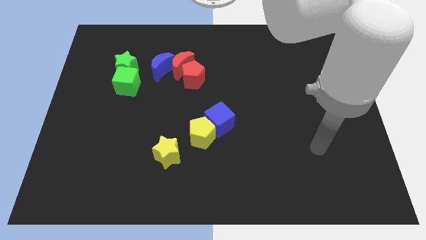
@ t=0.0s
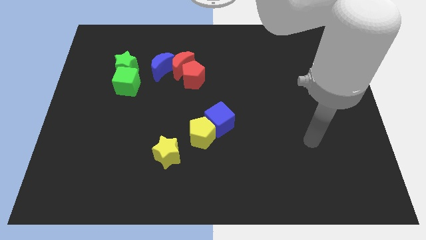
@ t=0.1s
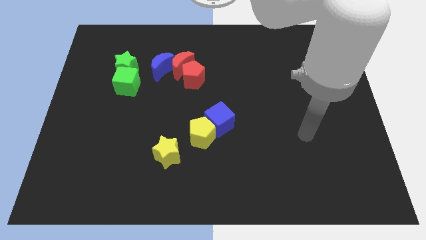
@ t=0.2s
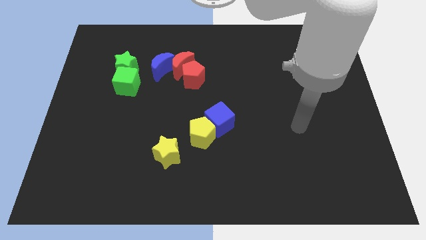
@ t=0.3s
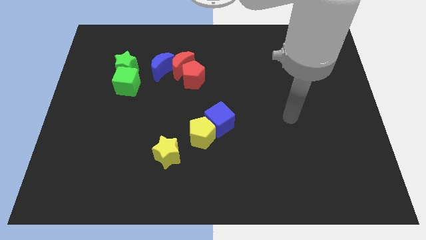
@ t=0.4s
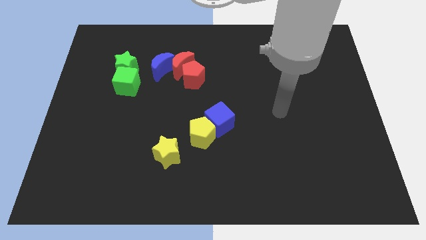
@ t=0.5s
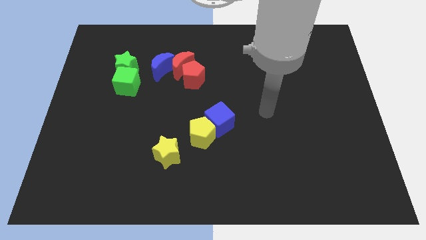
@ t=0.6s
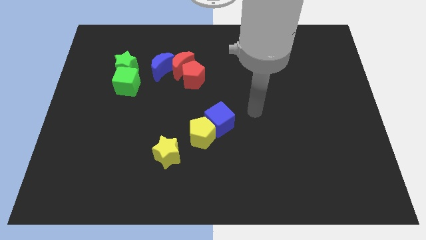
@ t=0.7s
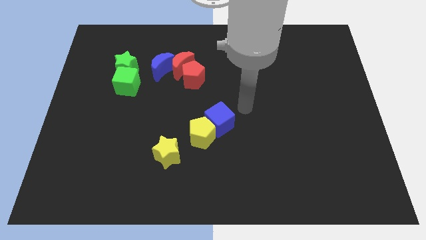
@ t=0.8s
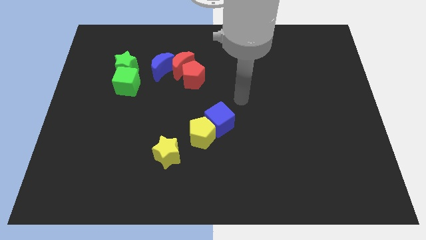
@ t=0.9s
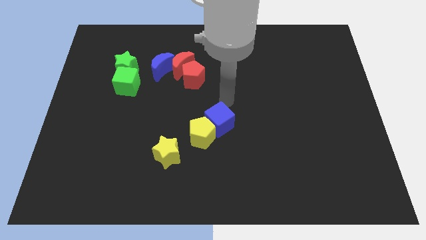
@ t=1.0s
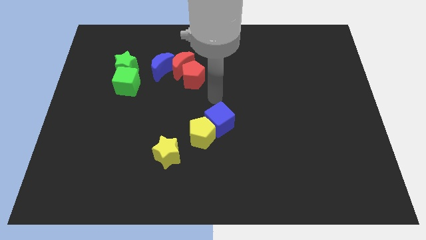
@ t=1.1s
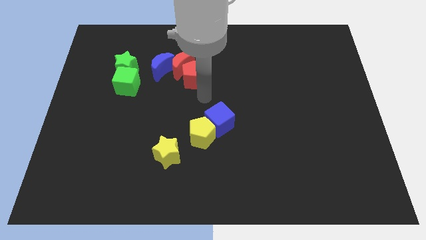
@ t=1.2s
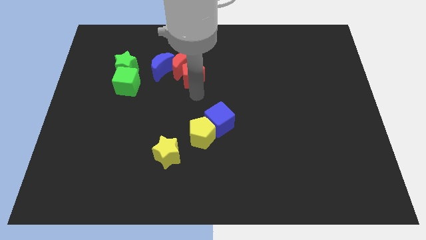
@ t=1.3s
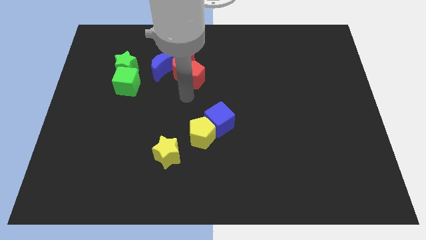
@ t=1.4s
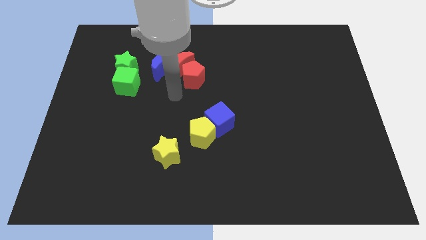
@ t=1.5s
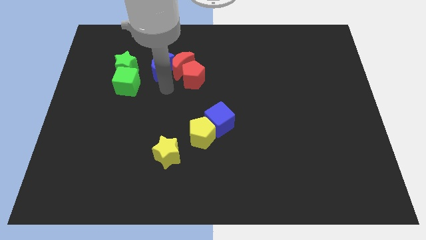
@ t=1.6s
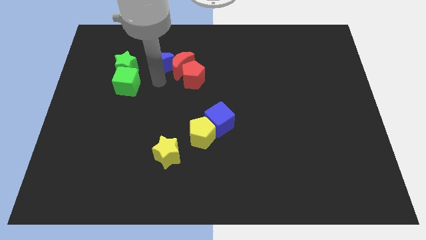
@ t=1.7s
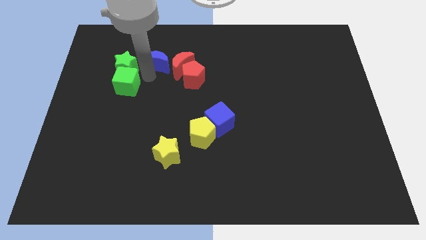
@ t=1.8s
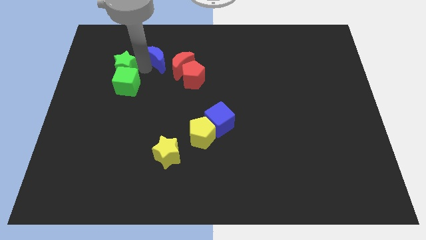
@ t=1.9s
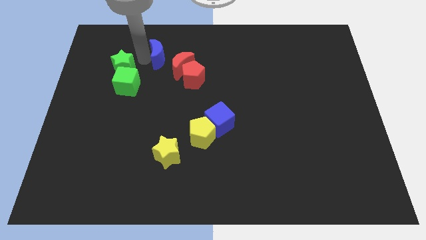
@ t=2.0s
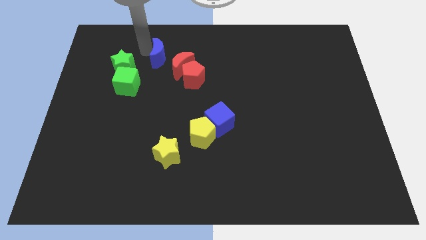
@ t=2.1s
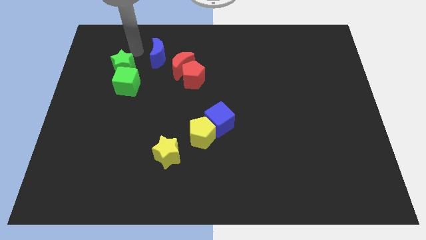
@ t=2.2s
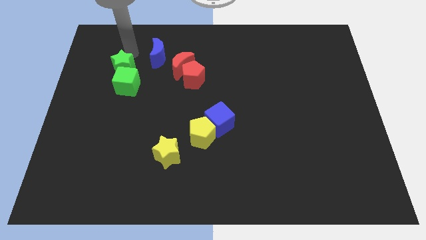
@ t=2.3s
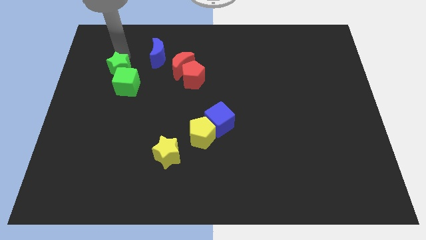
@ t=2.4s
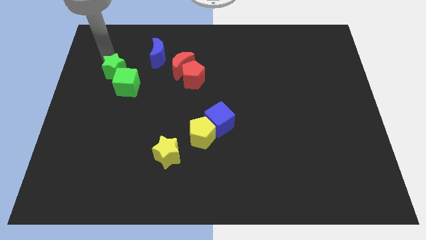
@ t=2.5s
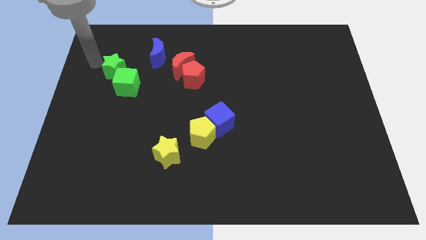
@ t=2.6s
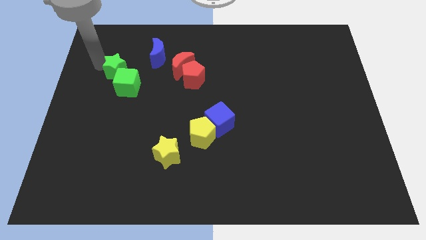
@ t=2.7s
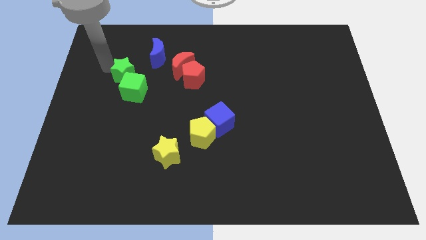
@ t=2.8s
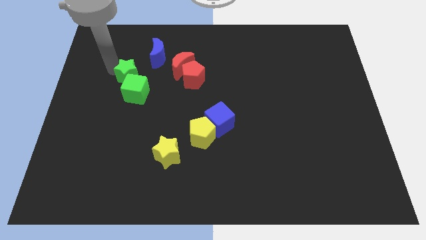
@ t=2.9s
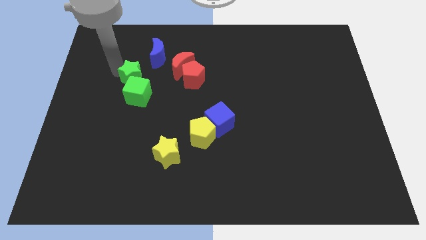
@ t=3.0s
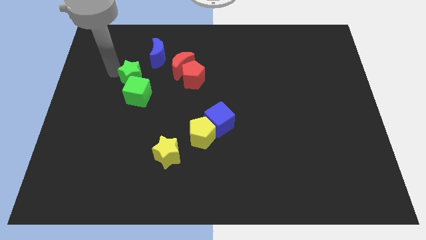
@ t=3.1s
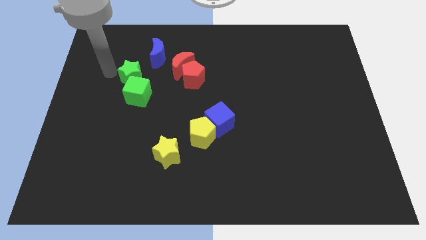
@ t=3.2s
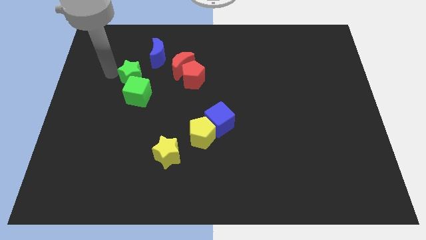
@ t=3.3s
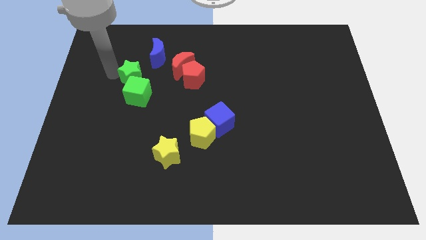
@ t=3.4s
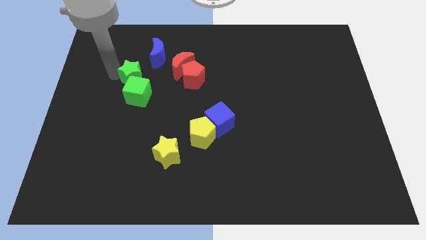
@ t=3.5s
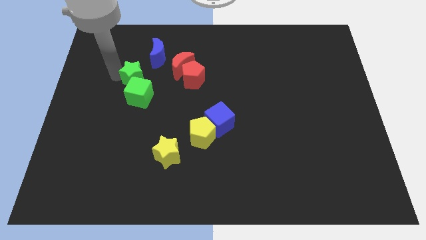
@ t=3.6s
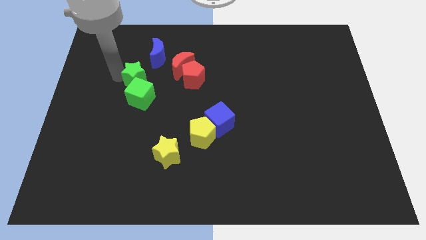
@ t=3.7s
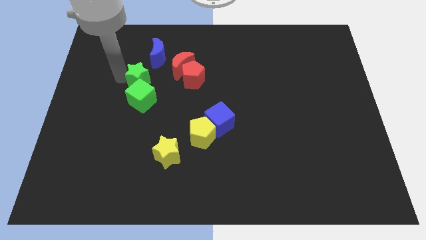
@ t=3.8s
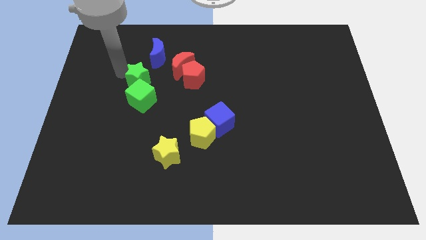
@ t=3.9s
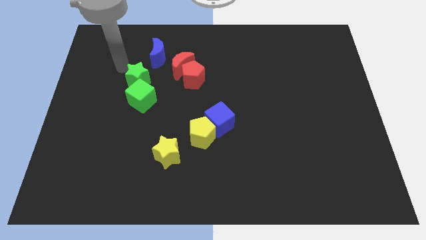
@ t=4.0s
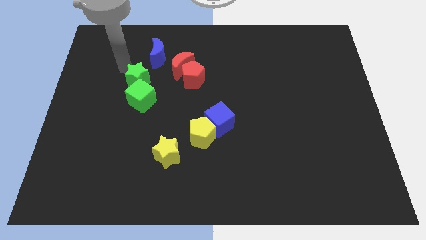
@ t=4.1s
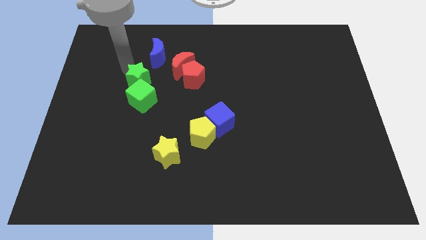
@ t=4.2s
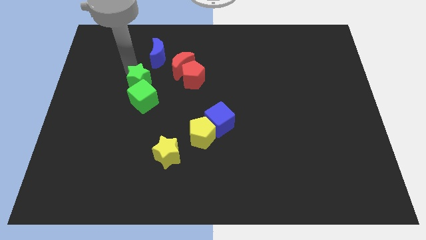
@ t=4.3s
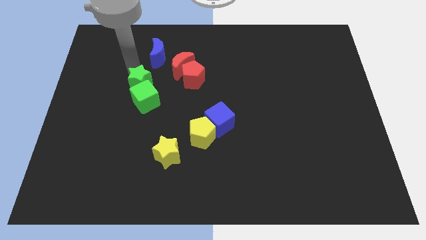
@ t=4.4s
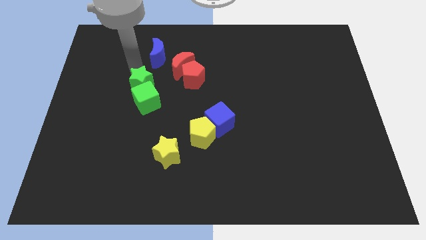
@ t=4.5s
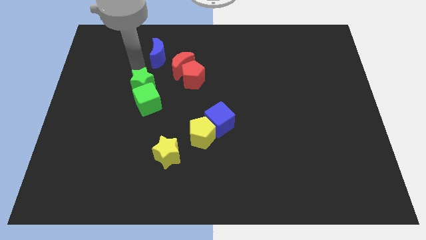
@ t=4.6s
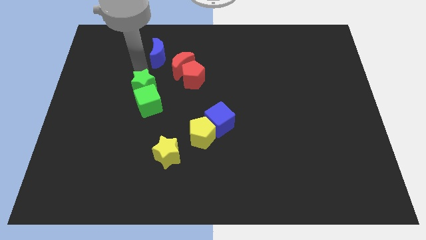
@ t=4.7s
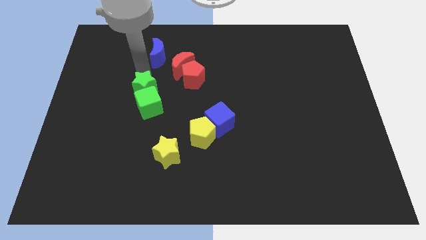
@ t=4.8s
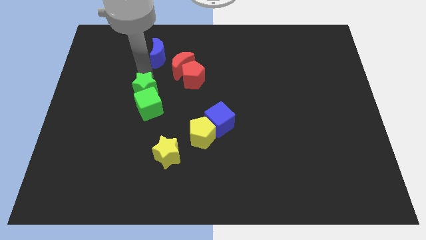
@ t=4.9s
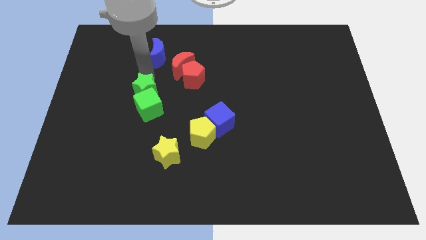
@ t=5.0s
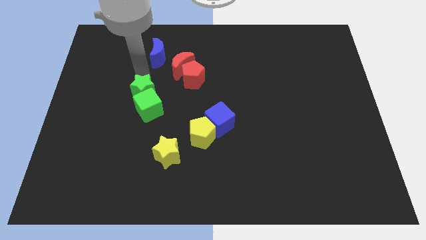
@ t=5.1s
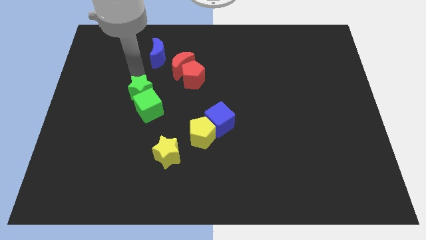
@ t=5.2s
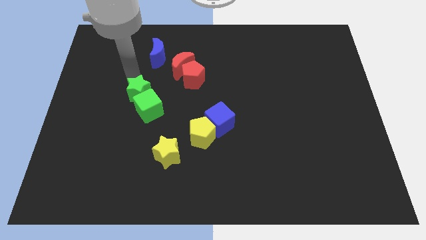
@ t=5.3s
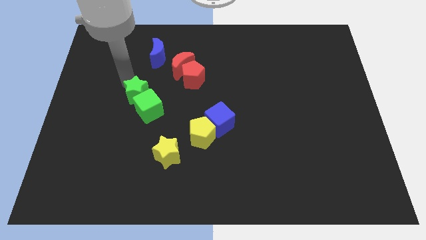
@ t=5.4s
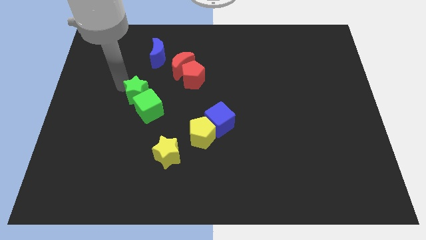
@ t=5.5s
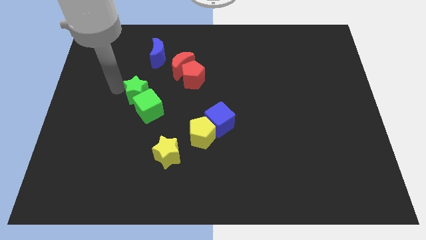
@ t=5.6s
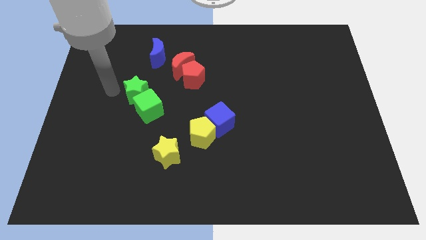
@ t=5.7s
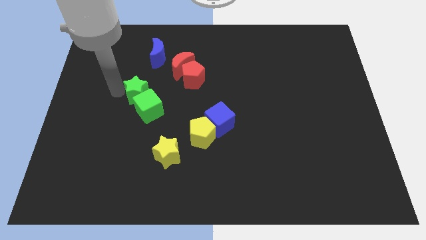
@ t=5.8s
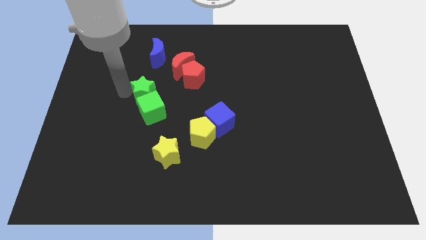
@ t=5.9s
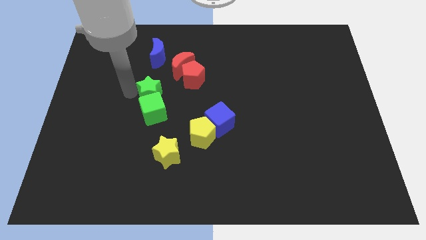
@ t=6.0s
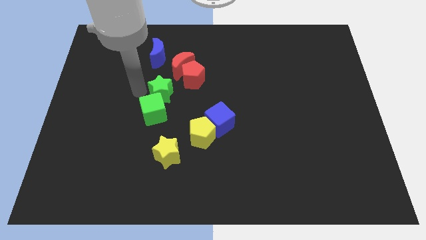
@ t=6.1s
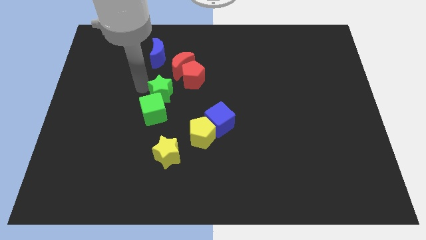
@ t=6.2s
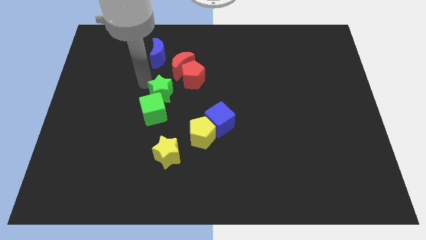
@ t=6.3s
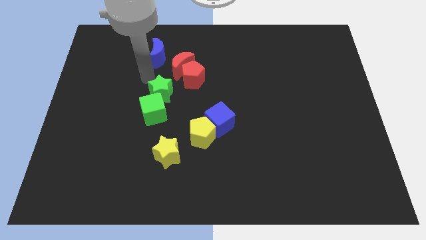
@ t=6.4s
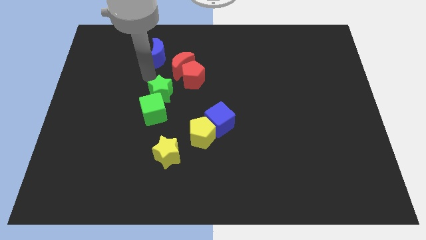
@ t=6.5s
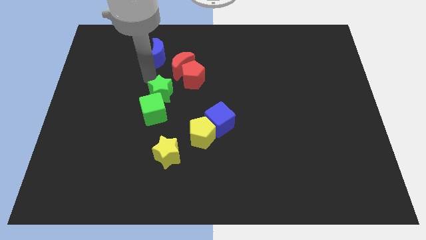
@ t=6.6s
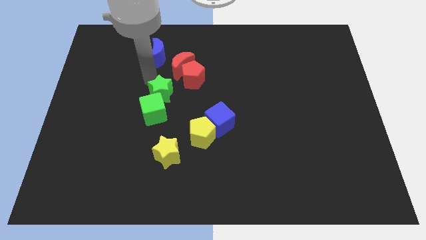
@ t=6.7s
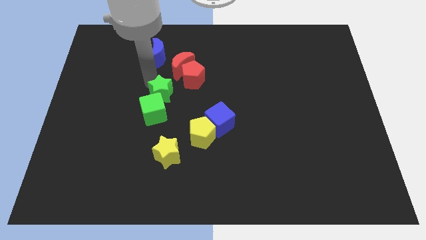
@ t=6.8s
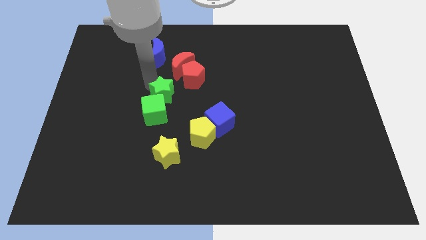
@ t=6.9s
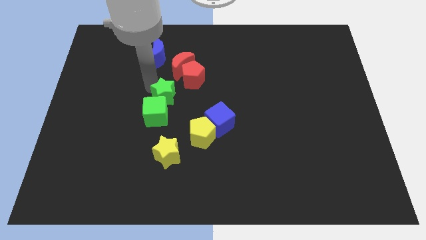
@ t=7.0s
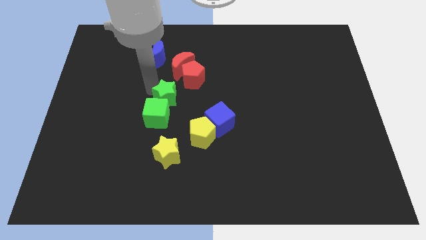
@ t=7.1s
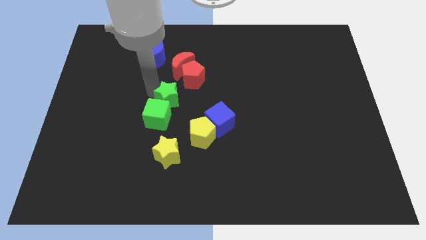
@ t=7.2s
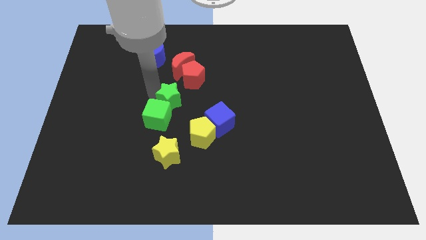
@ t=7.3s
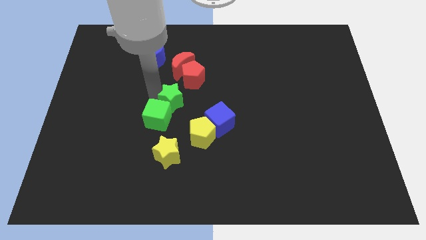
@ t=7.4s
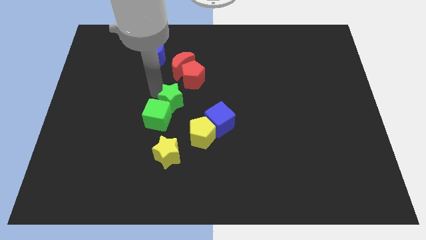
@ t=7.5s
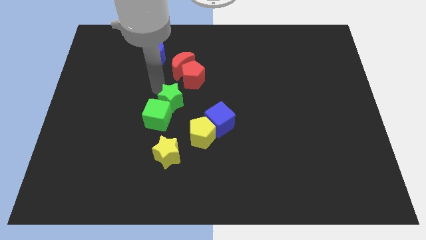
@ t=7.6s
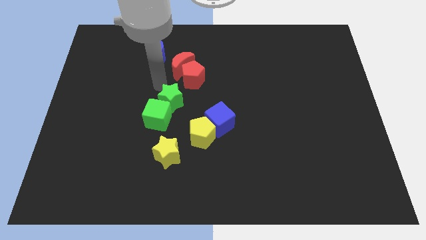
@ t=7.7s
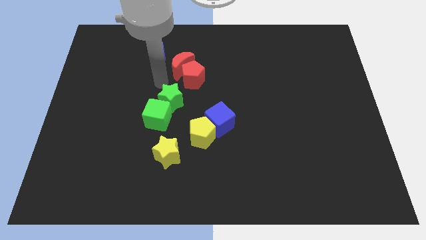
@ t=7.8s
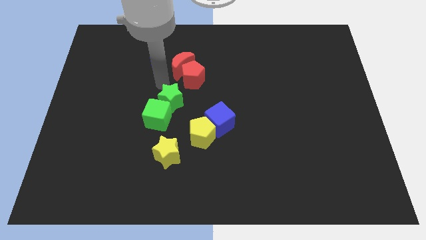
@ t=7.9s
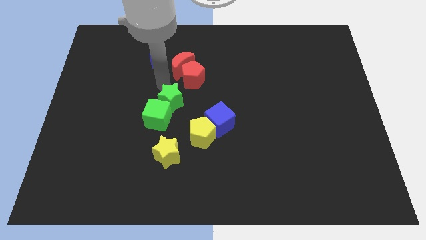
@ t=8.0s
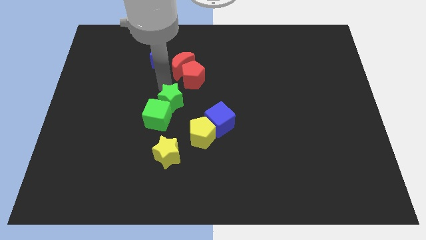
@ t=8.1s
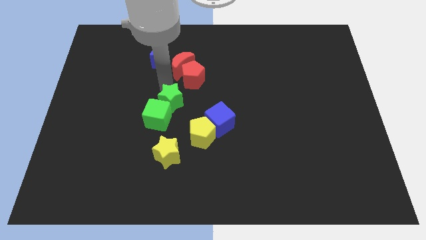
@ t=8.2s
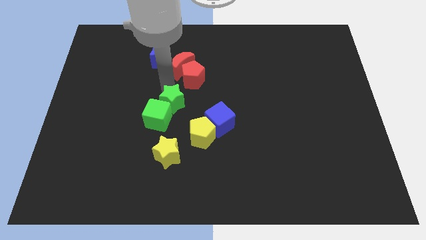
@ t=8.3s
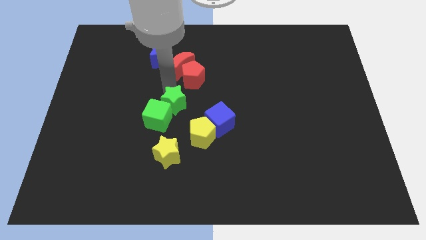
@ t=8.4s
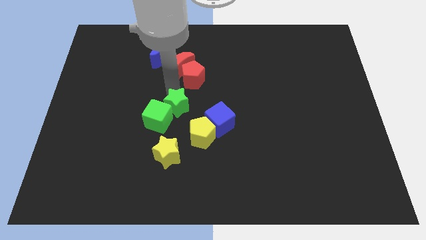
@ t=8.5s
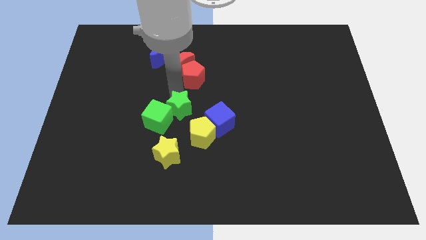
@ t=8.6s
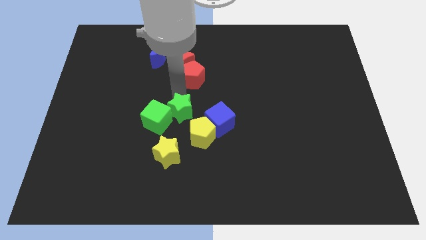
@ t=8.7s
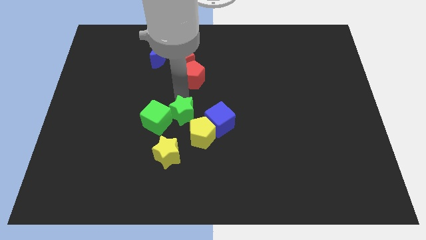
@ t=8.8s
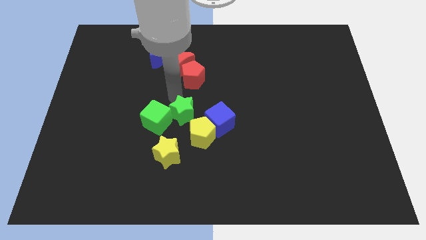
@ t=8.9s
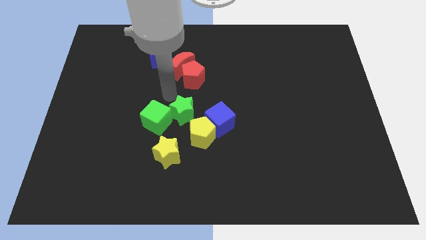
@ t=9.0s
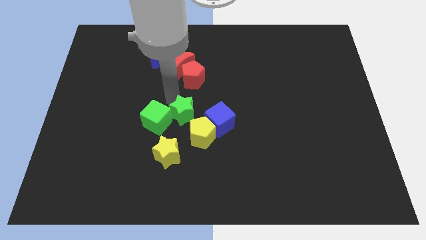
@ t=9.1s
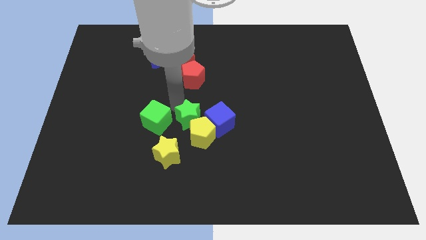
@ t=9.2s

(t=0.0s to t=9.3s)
slide the green star next to the yellow pentagon
